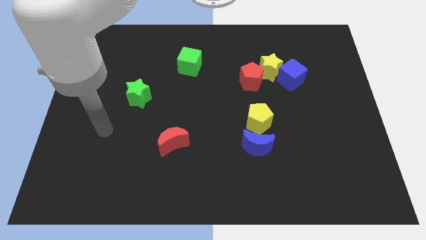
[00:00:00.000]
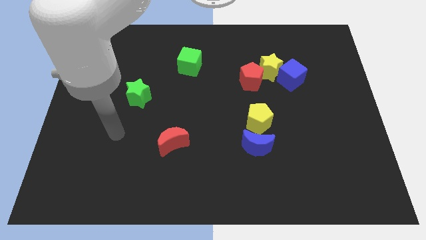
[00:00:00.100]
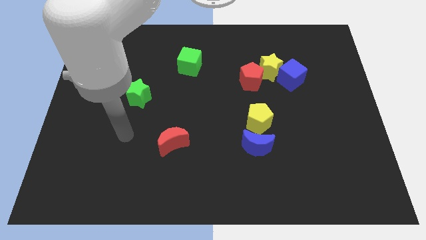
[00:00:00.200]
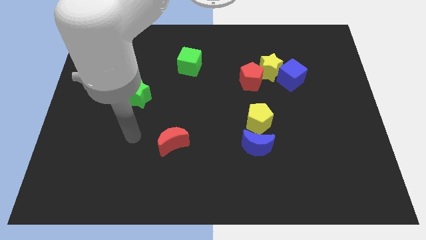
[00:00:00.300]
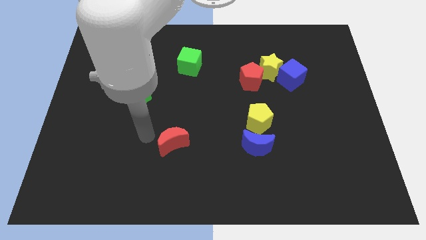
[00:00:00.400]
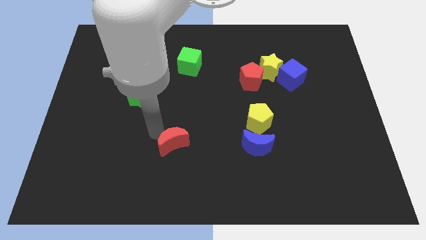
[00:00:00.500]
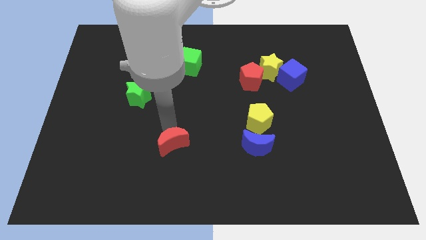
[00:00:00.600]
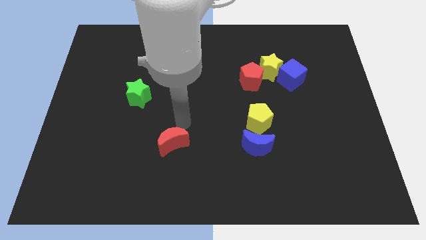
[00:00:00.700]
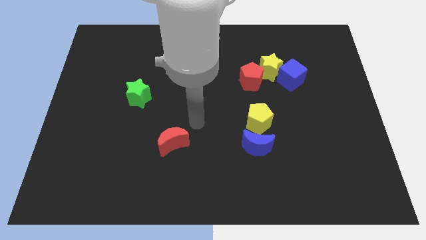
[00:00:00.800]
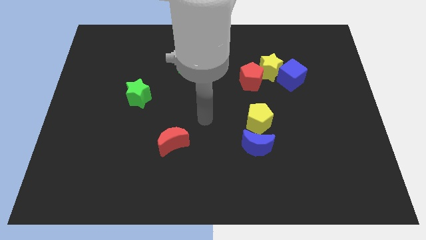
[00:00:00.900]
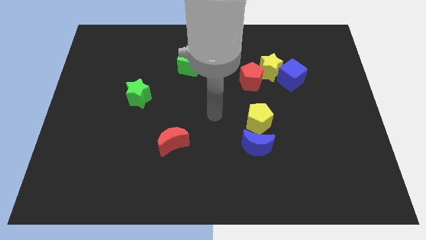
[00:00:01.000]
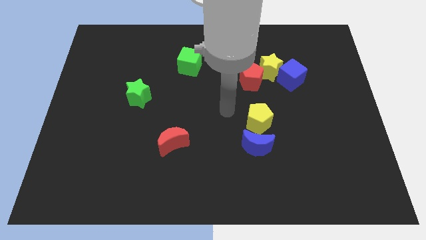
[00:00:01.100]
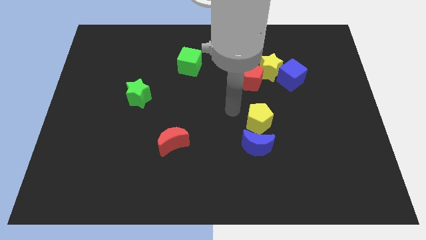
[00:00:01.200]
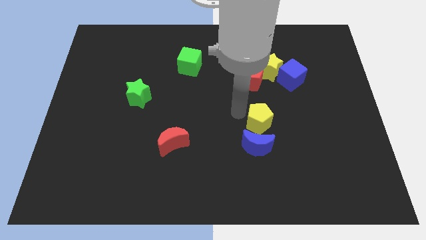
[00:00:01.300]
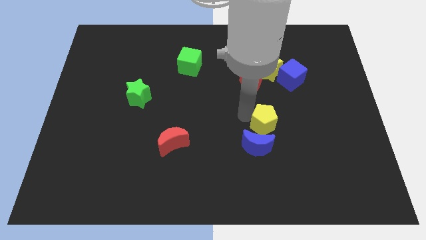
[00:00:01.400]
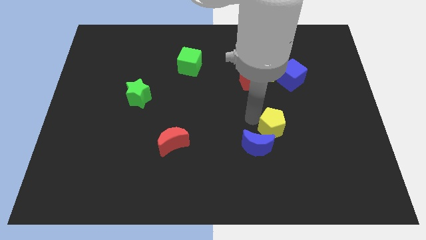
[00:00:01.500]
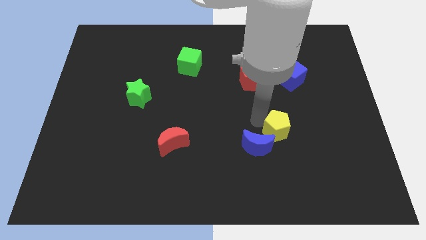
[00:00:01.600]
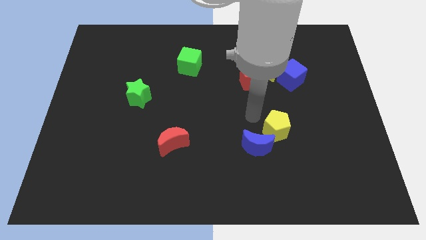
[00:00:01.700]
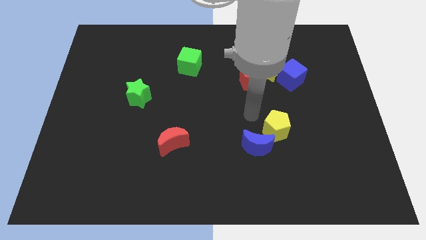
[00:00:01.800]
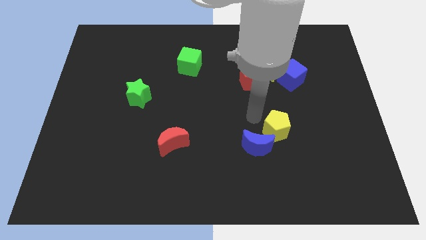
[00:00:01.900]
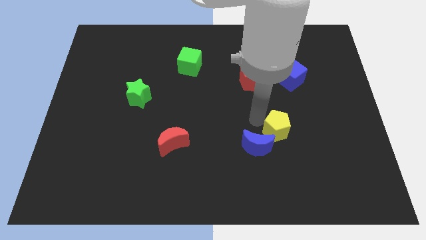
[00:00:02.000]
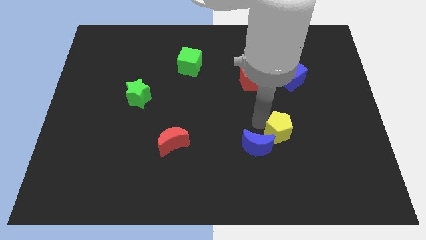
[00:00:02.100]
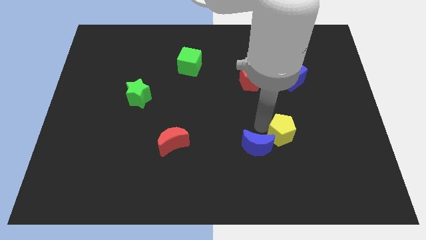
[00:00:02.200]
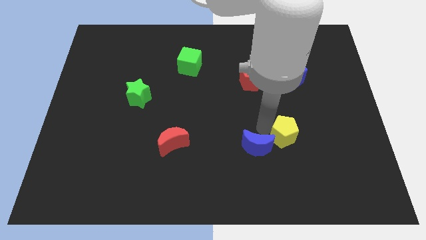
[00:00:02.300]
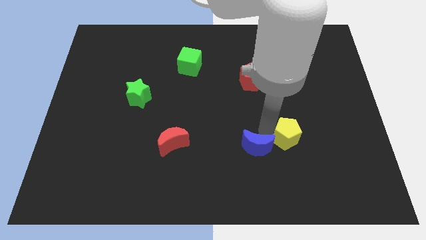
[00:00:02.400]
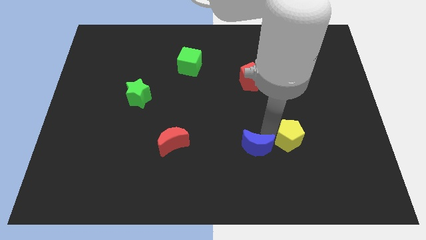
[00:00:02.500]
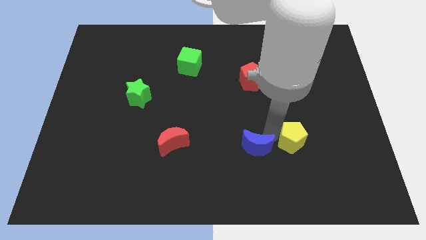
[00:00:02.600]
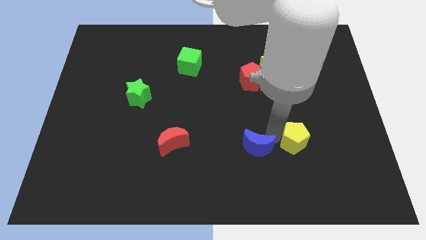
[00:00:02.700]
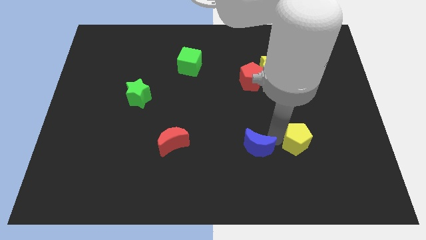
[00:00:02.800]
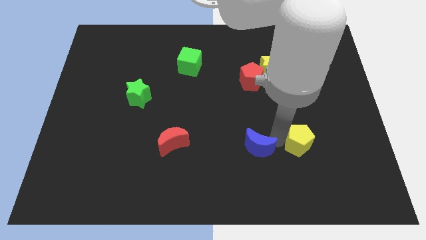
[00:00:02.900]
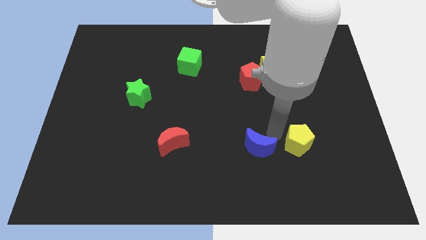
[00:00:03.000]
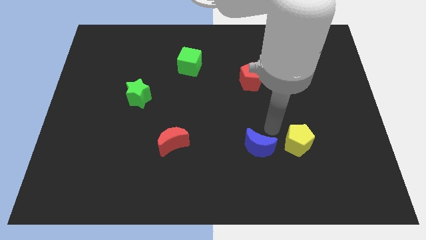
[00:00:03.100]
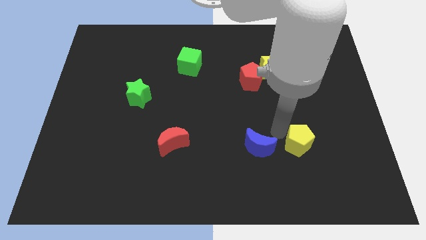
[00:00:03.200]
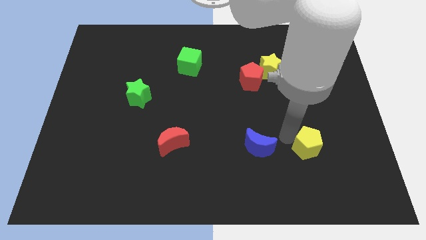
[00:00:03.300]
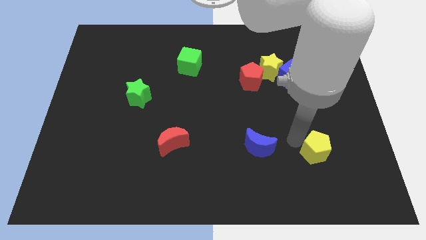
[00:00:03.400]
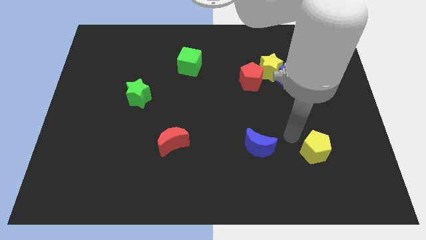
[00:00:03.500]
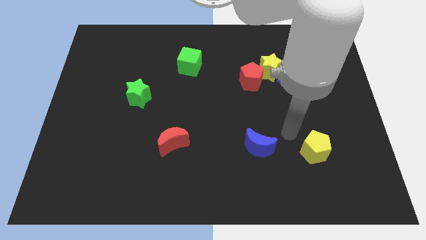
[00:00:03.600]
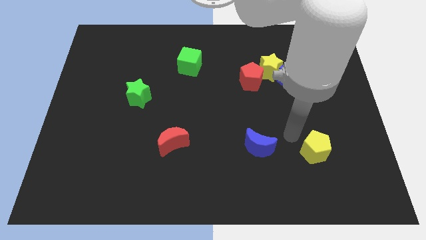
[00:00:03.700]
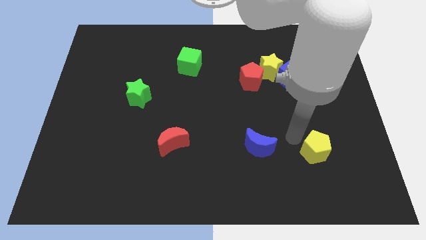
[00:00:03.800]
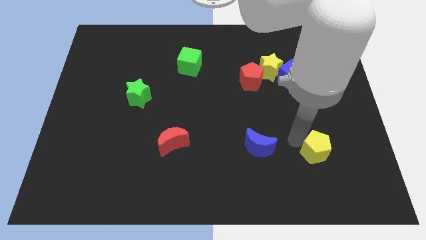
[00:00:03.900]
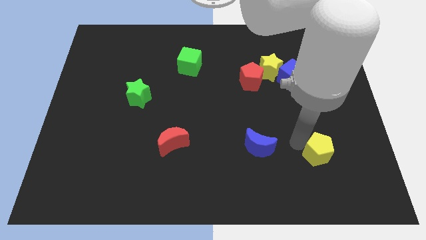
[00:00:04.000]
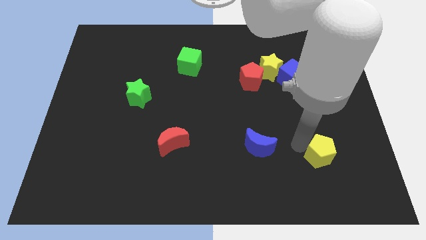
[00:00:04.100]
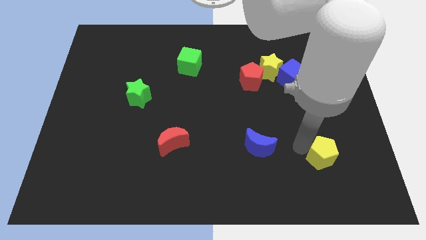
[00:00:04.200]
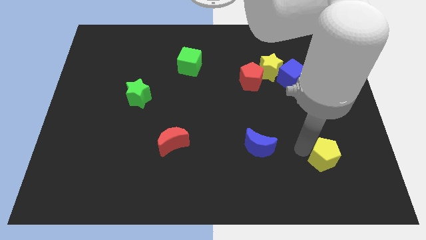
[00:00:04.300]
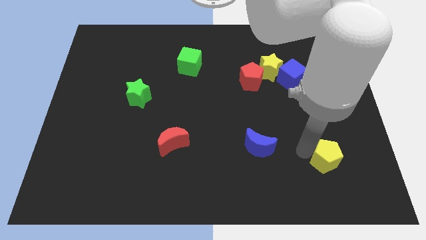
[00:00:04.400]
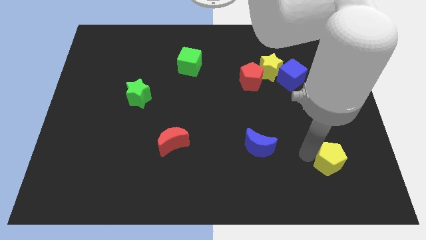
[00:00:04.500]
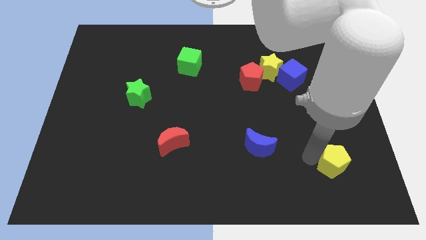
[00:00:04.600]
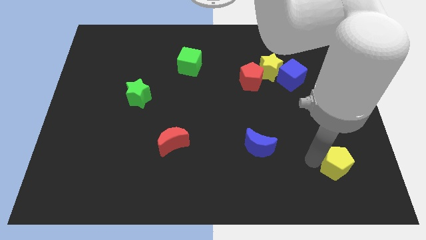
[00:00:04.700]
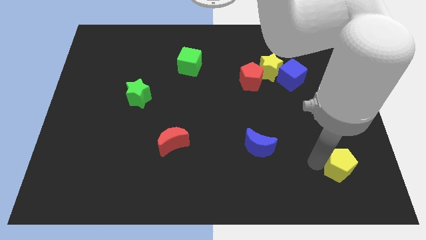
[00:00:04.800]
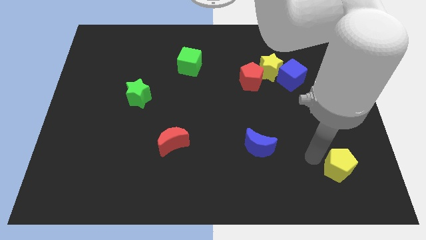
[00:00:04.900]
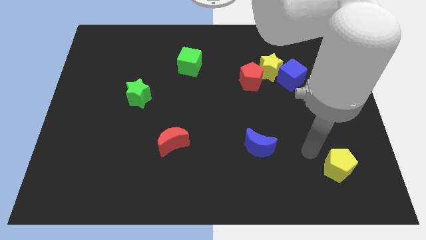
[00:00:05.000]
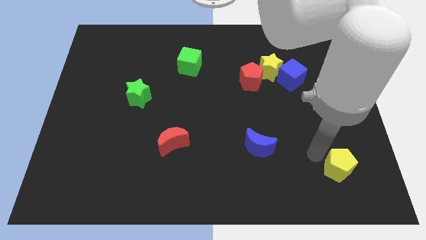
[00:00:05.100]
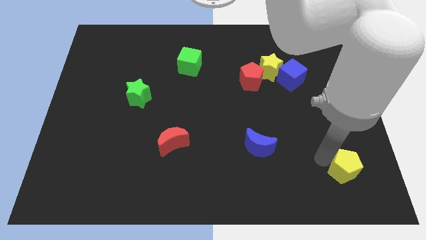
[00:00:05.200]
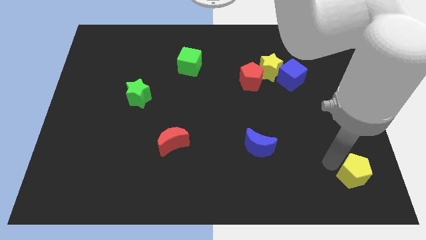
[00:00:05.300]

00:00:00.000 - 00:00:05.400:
push the yellow pentagon to the bottom right
